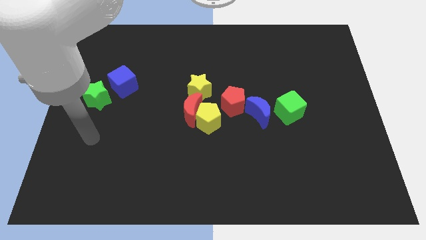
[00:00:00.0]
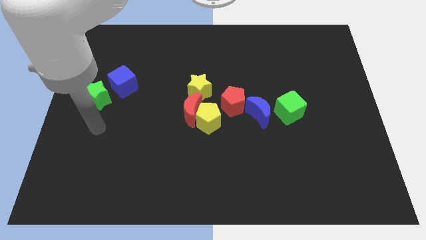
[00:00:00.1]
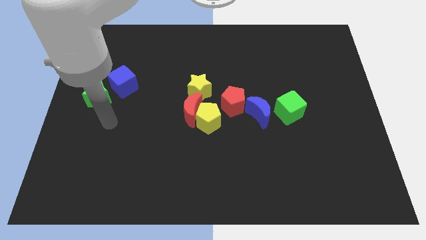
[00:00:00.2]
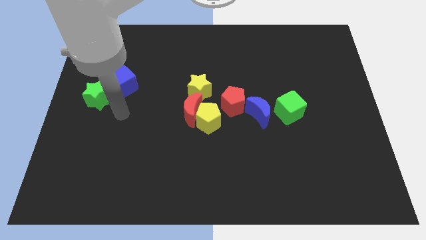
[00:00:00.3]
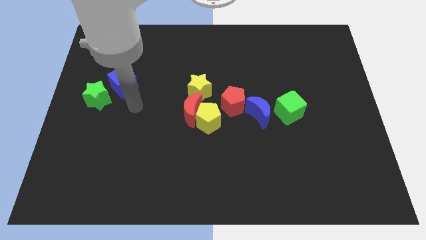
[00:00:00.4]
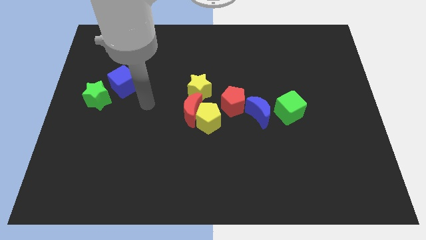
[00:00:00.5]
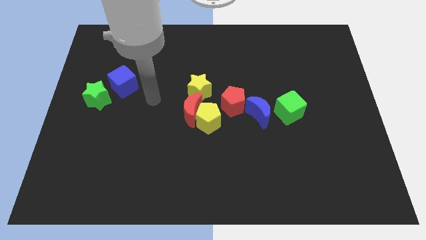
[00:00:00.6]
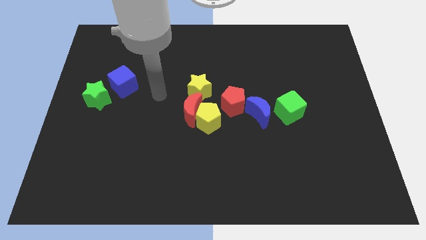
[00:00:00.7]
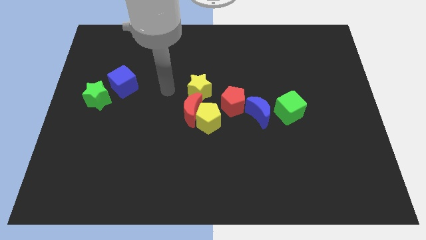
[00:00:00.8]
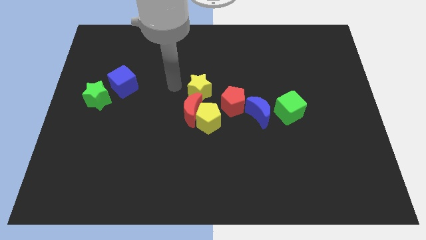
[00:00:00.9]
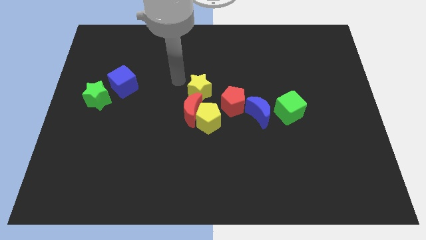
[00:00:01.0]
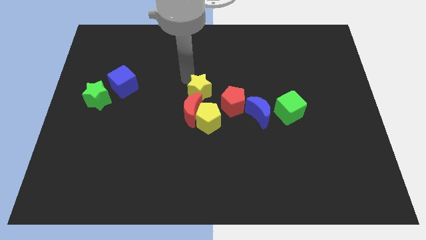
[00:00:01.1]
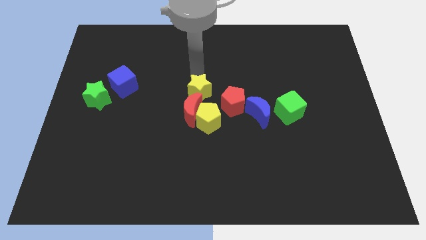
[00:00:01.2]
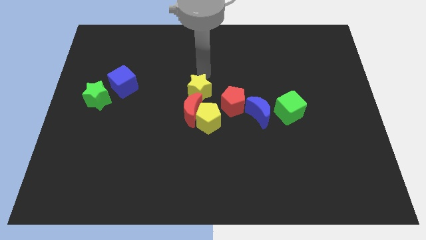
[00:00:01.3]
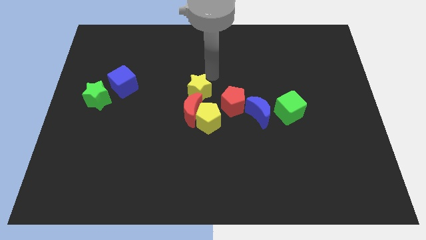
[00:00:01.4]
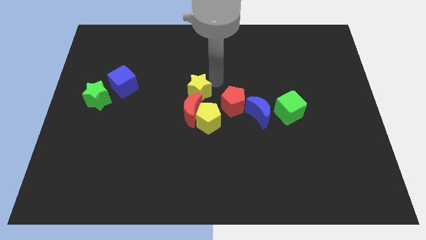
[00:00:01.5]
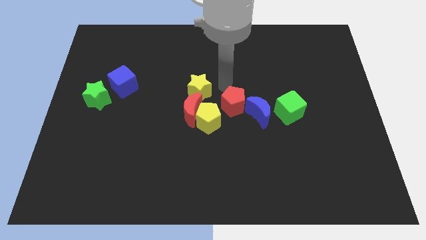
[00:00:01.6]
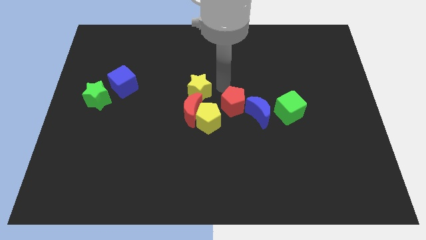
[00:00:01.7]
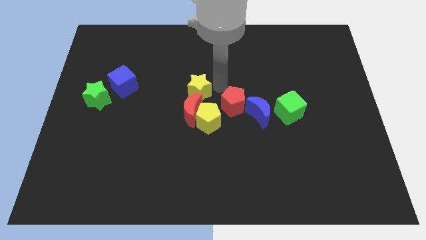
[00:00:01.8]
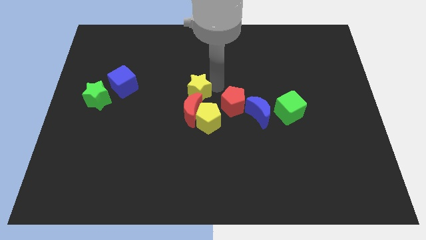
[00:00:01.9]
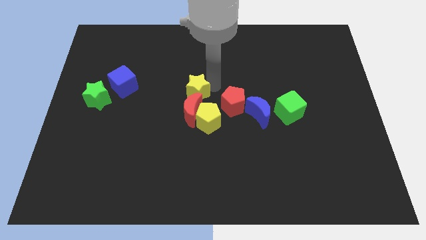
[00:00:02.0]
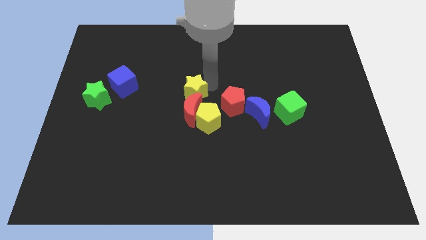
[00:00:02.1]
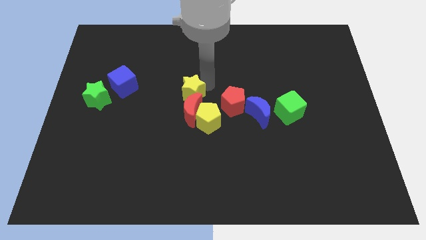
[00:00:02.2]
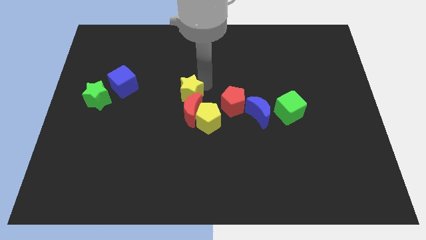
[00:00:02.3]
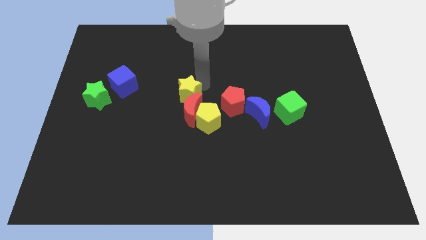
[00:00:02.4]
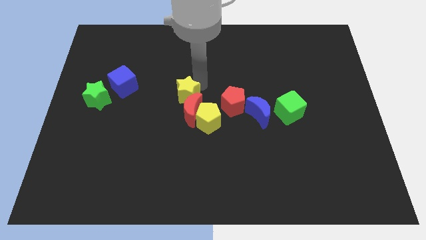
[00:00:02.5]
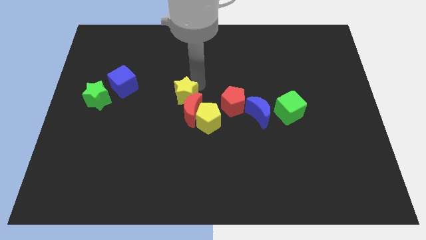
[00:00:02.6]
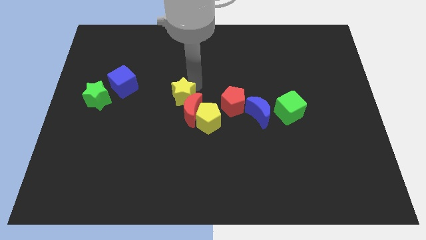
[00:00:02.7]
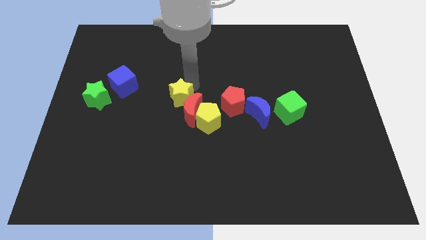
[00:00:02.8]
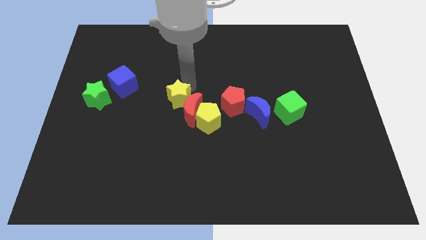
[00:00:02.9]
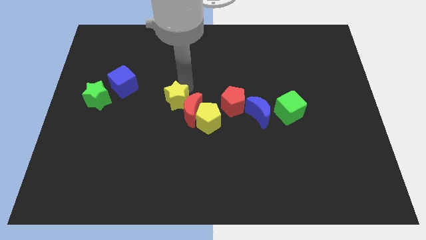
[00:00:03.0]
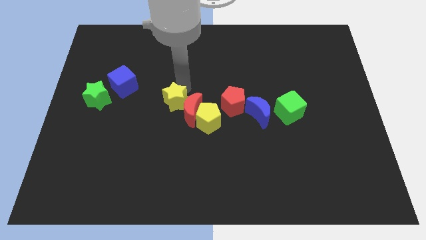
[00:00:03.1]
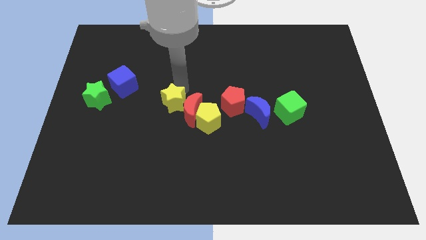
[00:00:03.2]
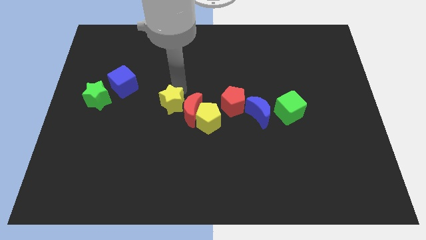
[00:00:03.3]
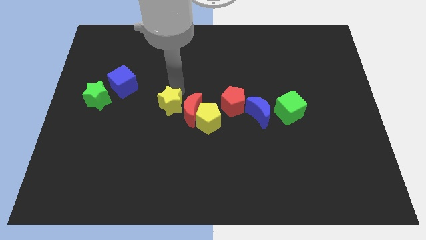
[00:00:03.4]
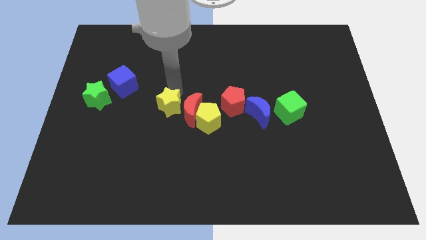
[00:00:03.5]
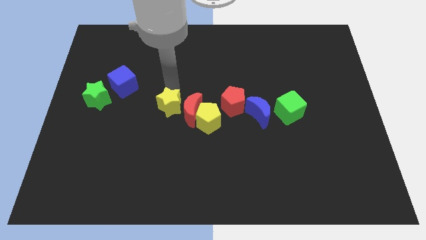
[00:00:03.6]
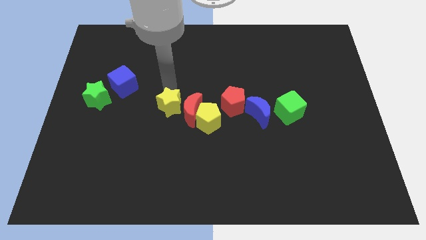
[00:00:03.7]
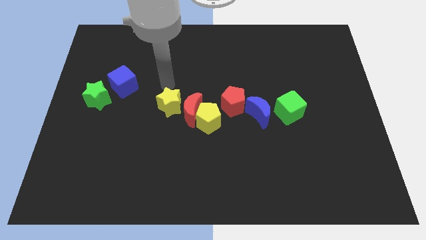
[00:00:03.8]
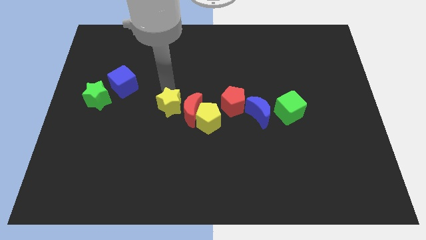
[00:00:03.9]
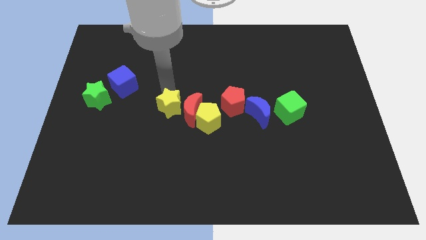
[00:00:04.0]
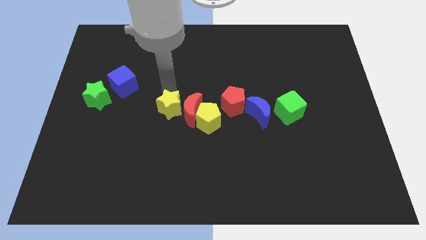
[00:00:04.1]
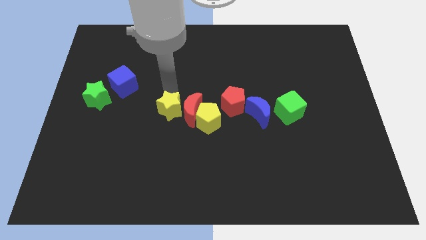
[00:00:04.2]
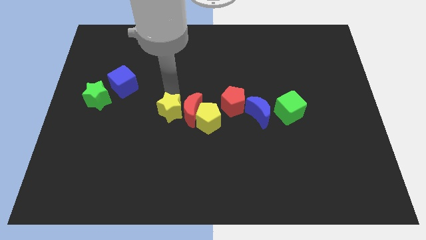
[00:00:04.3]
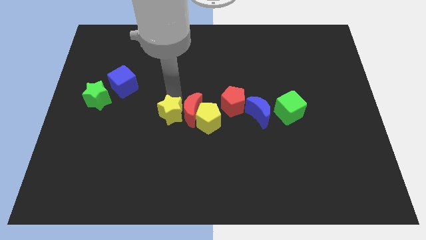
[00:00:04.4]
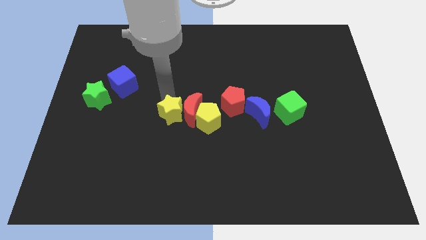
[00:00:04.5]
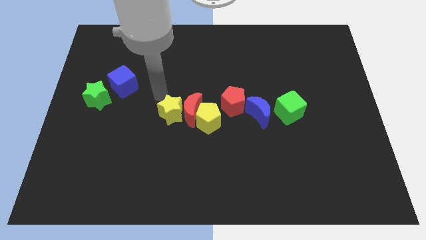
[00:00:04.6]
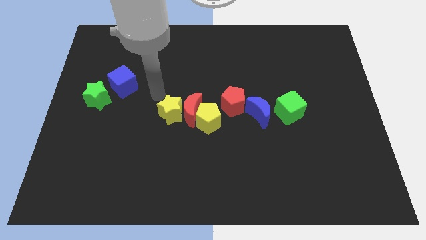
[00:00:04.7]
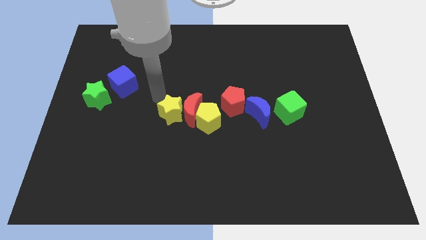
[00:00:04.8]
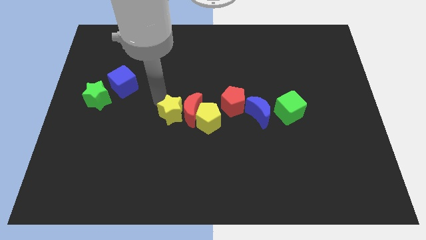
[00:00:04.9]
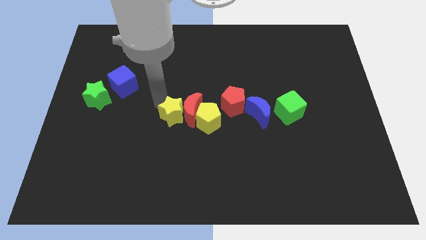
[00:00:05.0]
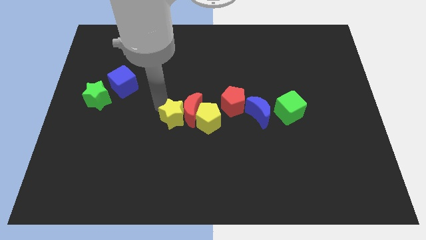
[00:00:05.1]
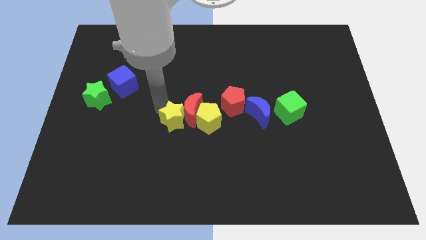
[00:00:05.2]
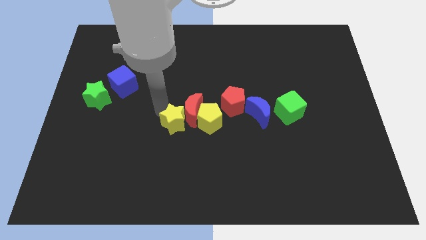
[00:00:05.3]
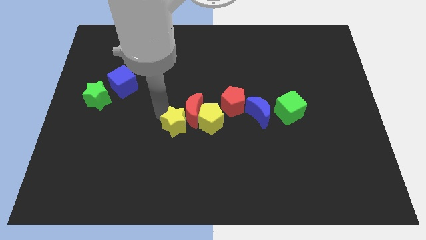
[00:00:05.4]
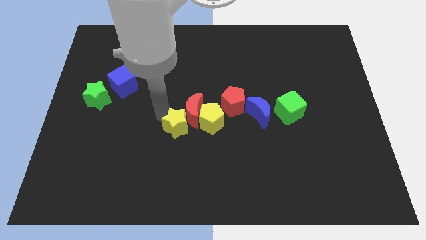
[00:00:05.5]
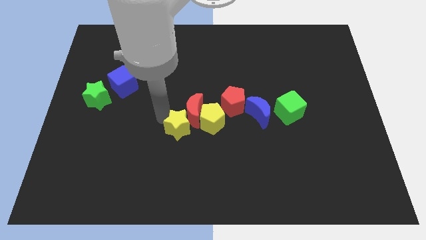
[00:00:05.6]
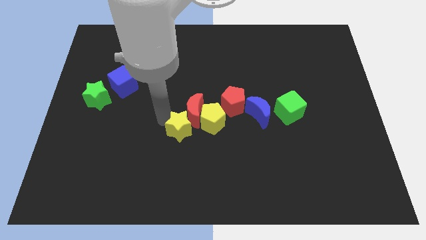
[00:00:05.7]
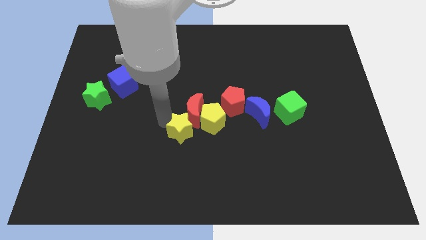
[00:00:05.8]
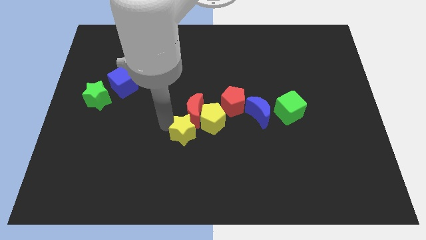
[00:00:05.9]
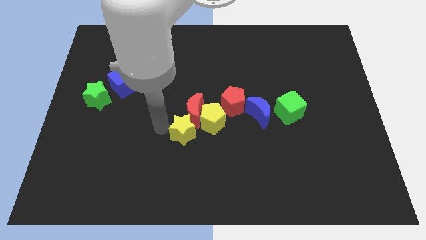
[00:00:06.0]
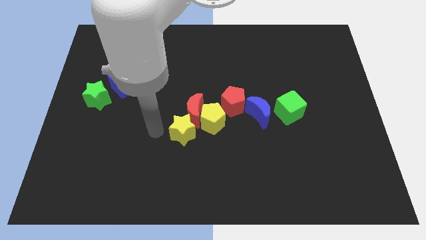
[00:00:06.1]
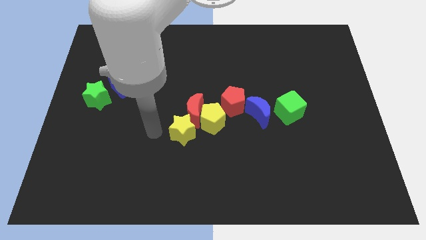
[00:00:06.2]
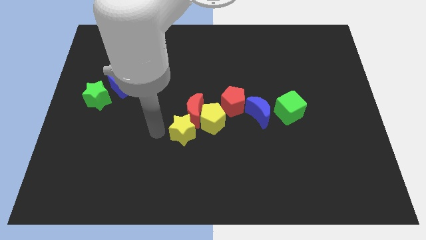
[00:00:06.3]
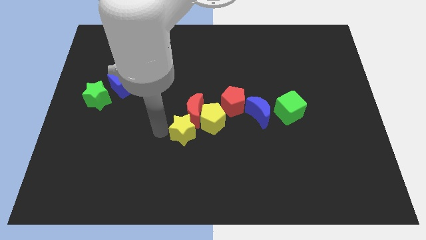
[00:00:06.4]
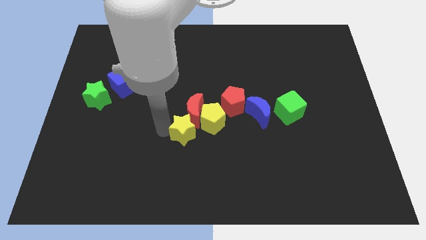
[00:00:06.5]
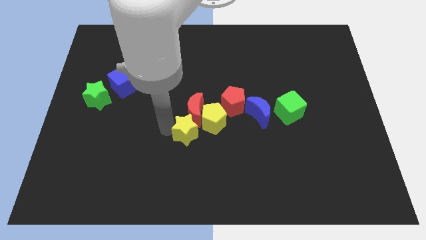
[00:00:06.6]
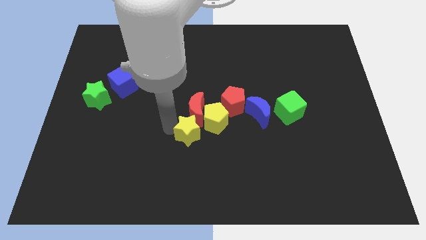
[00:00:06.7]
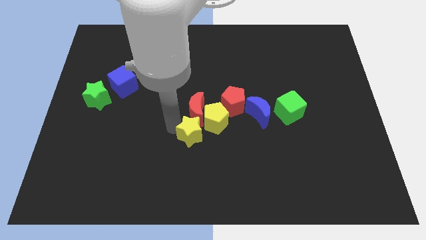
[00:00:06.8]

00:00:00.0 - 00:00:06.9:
move the yellow star to the bottom right of the red moon
